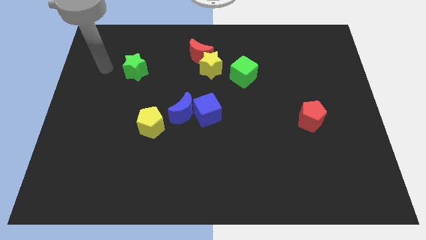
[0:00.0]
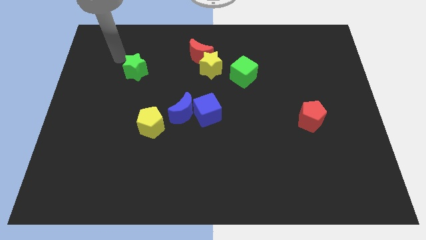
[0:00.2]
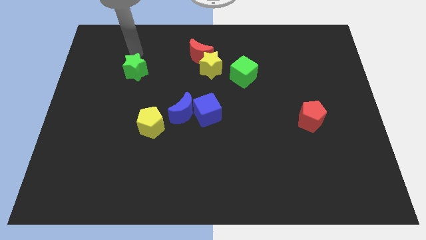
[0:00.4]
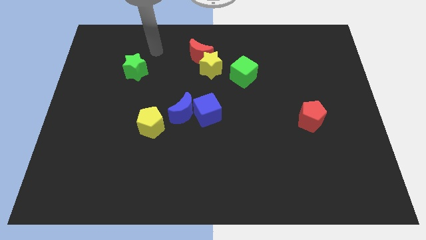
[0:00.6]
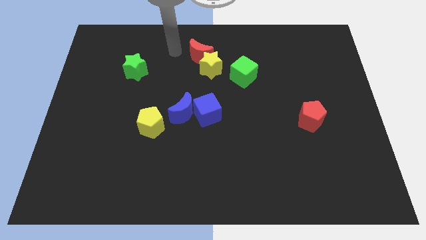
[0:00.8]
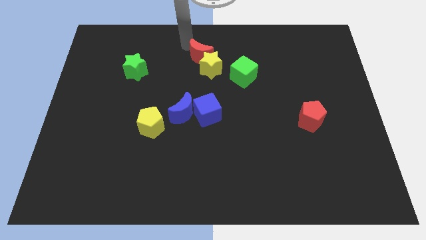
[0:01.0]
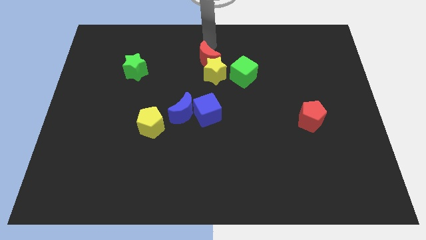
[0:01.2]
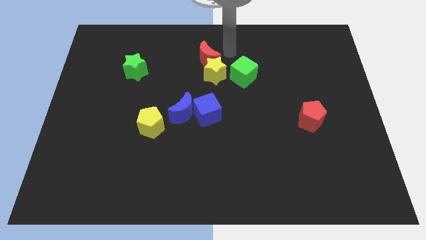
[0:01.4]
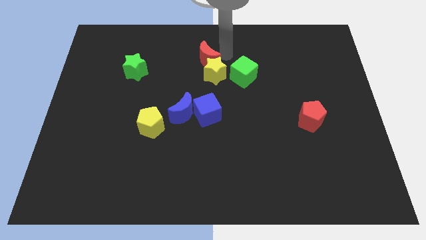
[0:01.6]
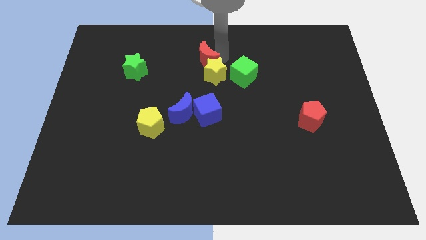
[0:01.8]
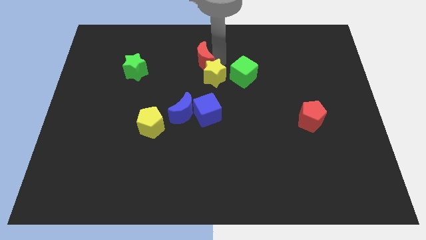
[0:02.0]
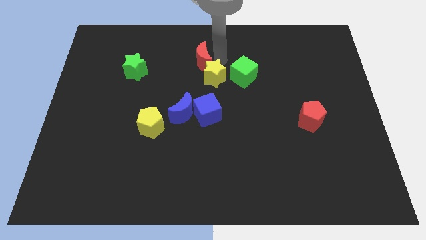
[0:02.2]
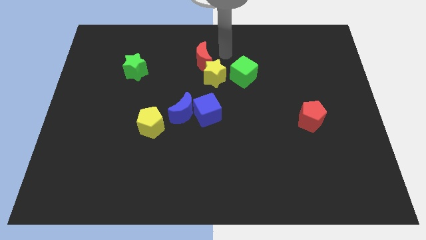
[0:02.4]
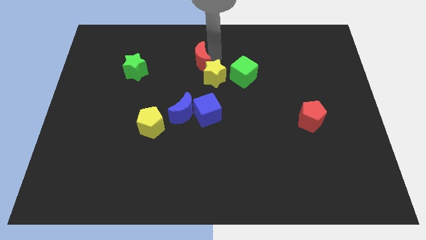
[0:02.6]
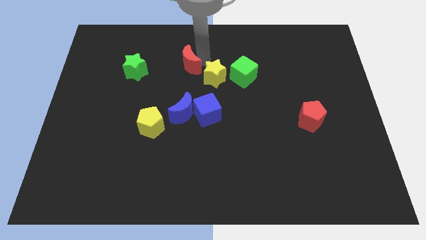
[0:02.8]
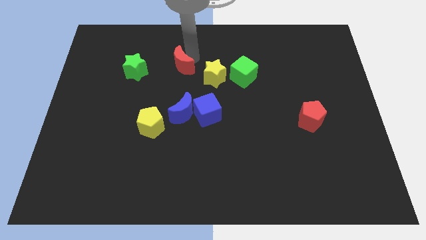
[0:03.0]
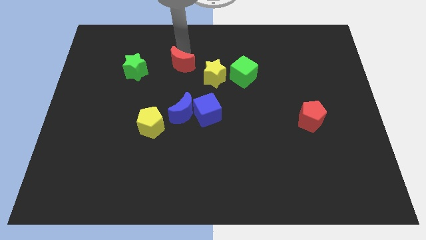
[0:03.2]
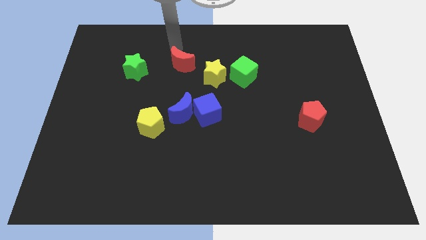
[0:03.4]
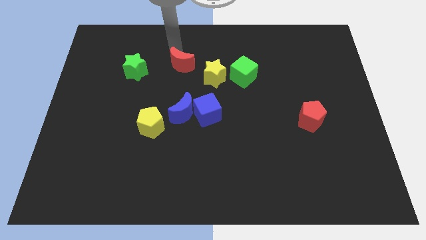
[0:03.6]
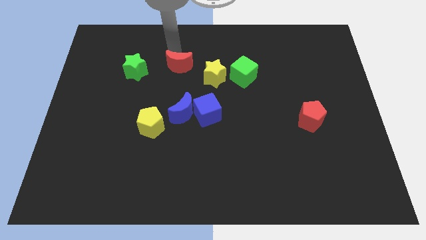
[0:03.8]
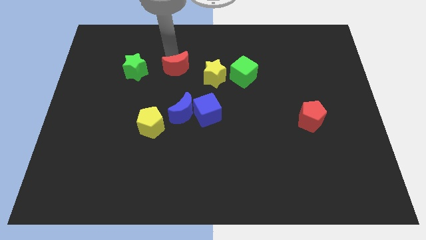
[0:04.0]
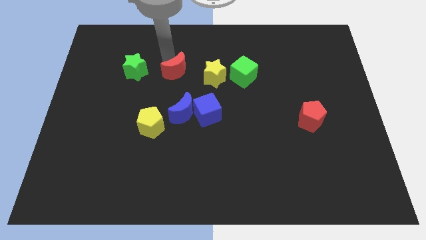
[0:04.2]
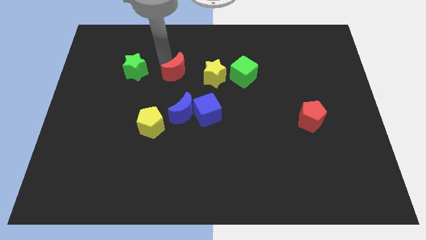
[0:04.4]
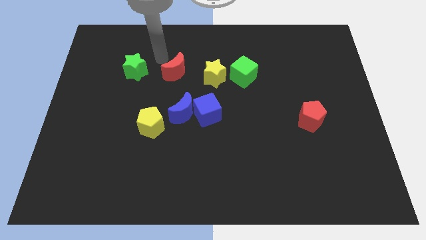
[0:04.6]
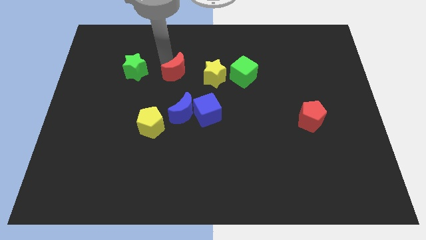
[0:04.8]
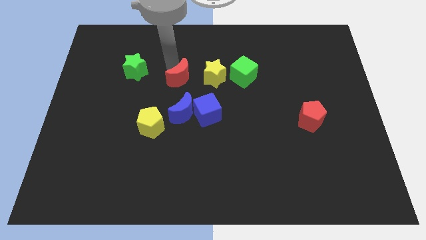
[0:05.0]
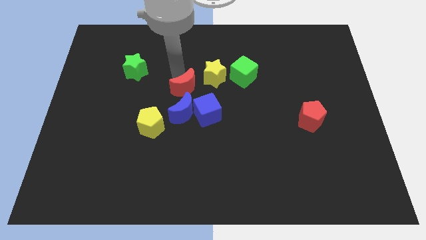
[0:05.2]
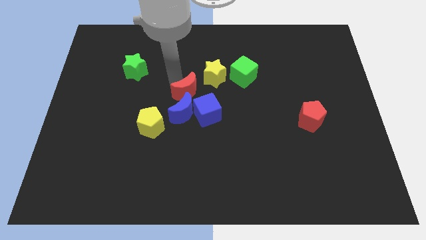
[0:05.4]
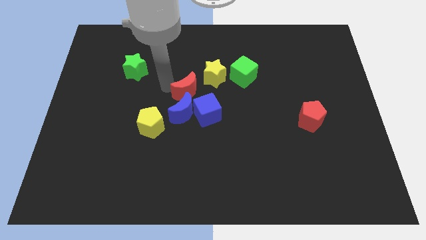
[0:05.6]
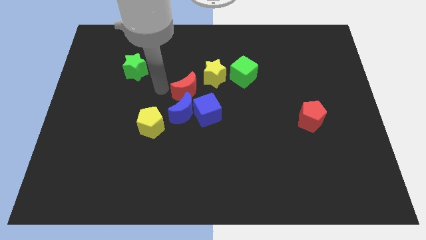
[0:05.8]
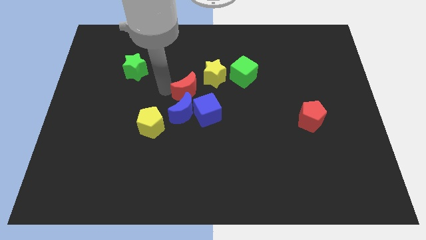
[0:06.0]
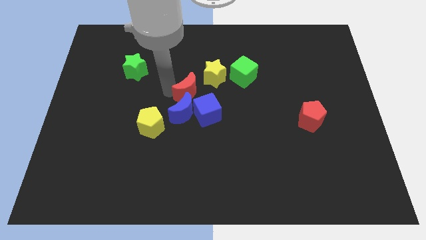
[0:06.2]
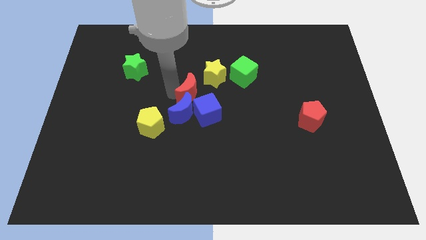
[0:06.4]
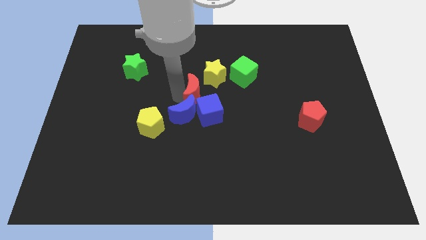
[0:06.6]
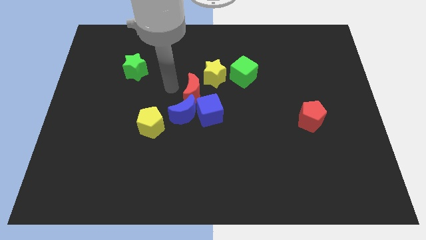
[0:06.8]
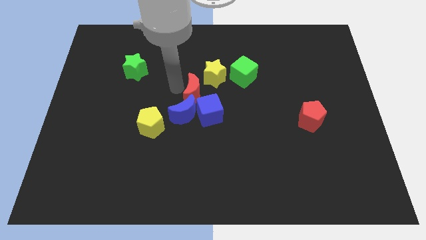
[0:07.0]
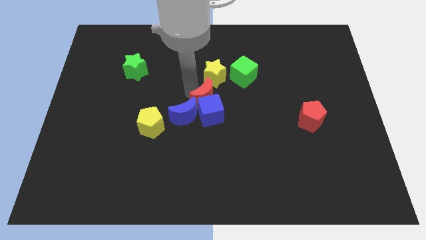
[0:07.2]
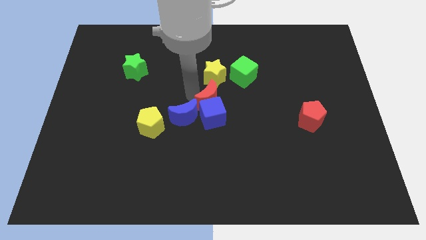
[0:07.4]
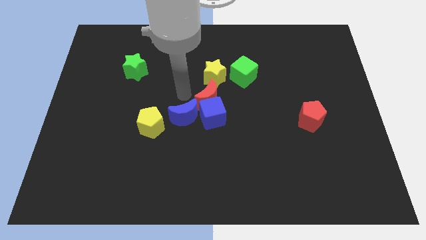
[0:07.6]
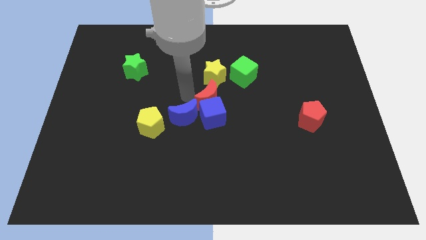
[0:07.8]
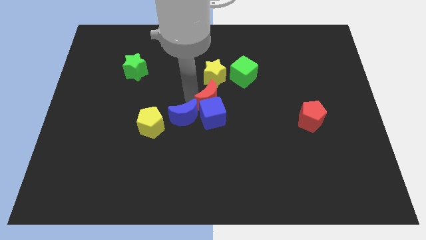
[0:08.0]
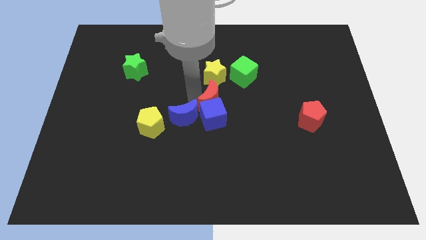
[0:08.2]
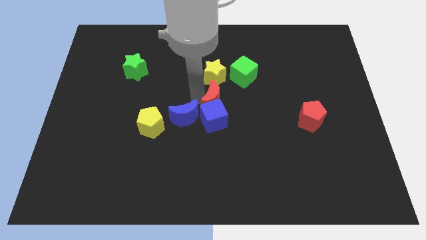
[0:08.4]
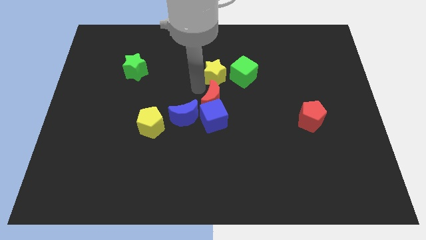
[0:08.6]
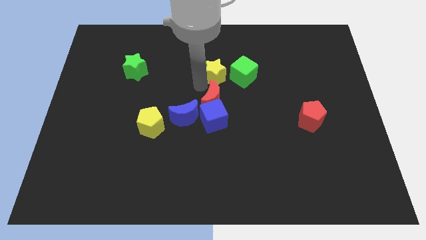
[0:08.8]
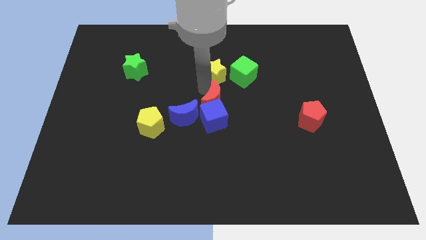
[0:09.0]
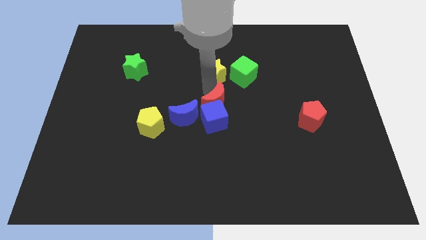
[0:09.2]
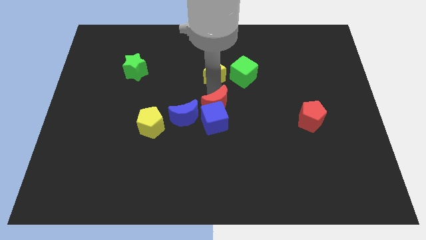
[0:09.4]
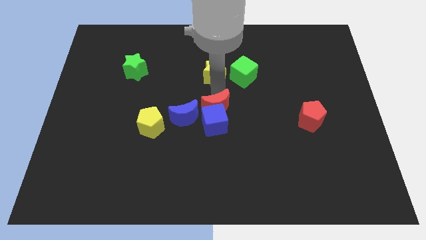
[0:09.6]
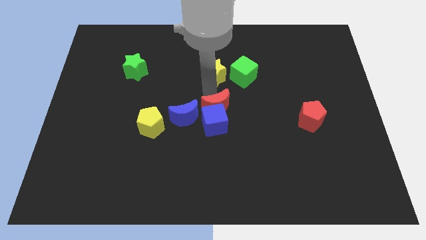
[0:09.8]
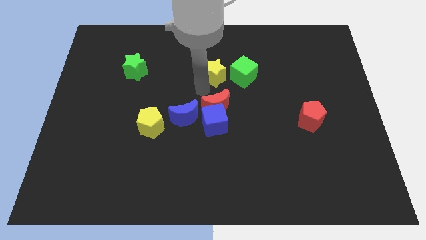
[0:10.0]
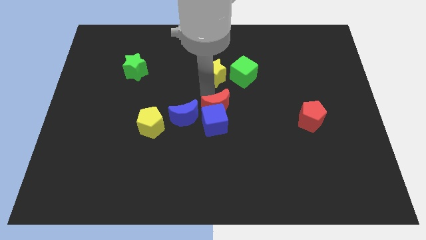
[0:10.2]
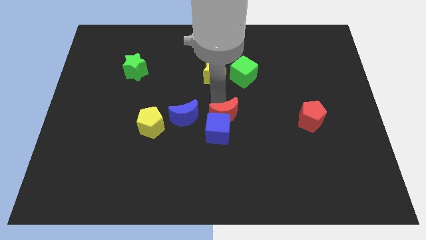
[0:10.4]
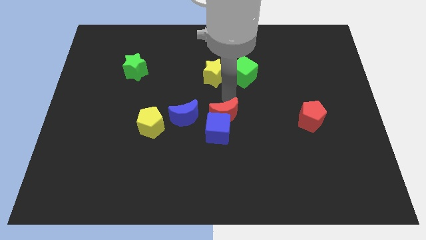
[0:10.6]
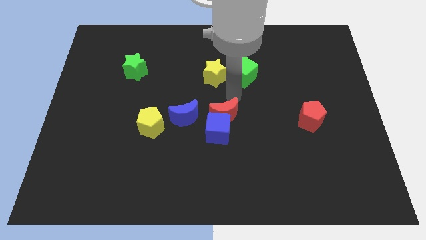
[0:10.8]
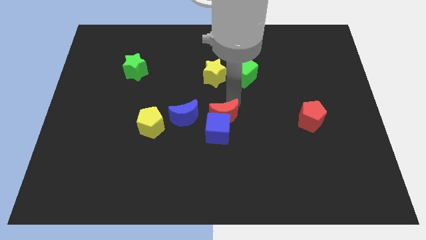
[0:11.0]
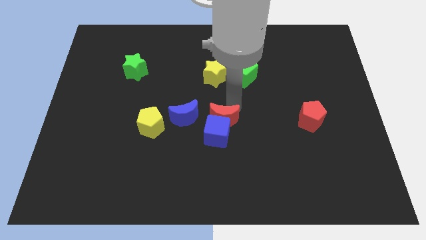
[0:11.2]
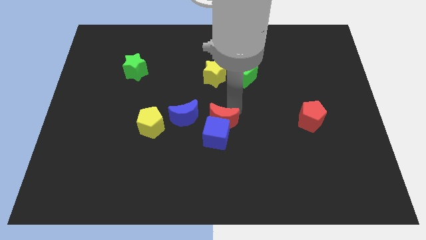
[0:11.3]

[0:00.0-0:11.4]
move the red moon down

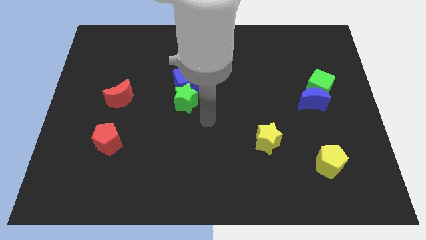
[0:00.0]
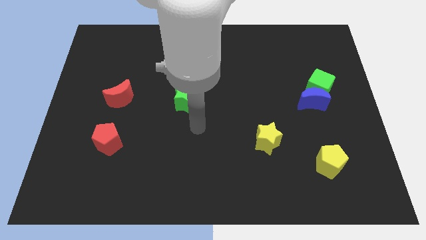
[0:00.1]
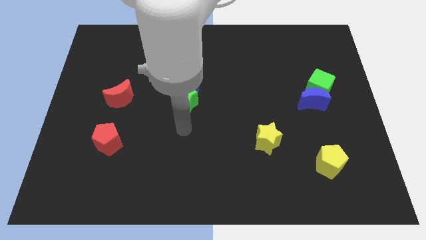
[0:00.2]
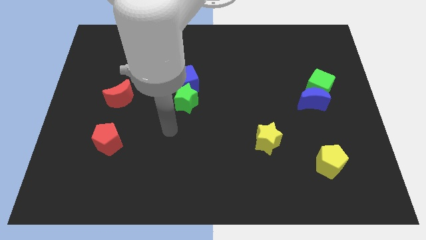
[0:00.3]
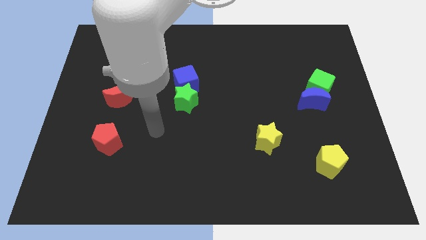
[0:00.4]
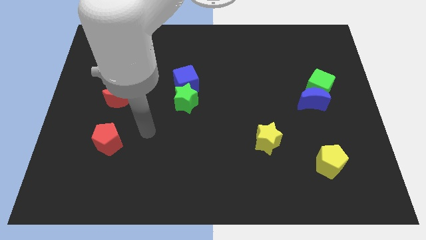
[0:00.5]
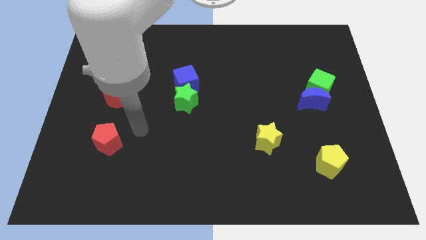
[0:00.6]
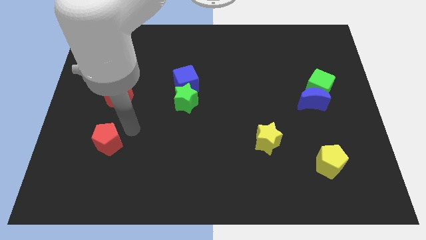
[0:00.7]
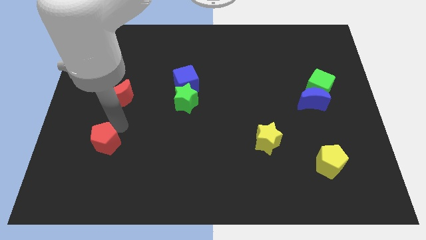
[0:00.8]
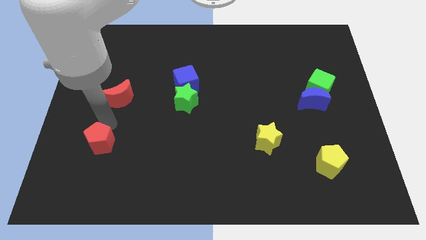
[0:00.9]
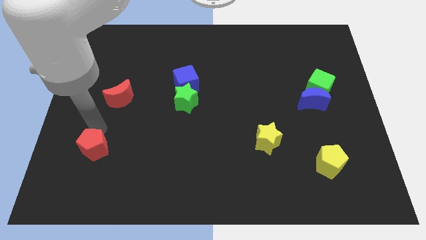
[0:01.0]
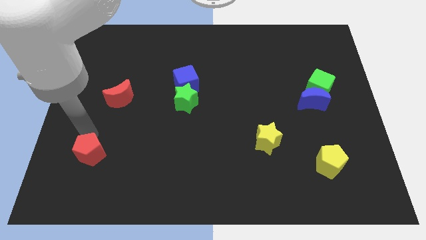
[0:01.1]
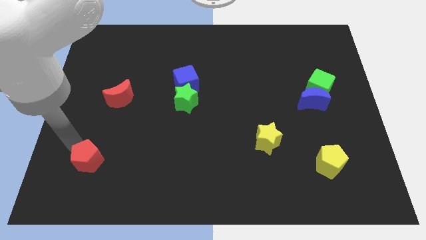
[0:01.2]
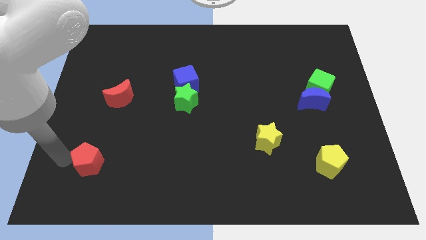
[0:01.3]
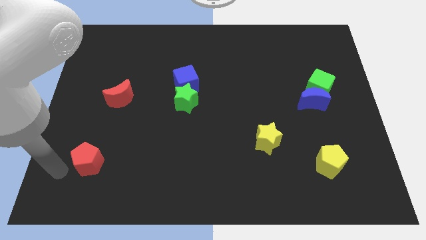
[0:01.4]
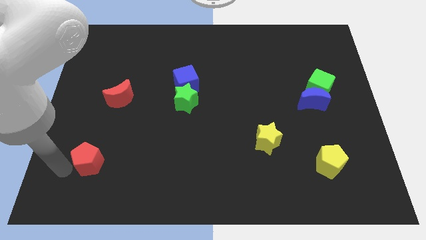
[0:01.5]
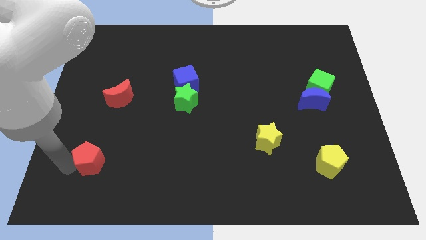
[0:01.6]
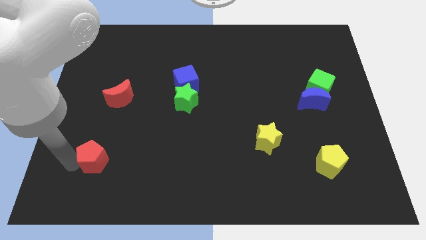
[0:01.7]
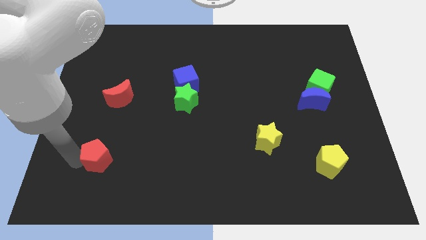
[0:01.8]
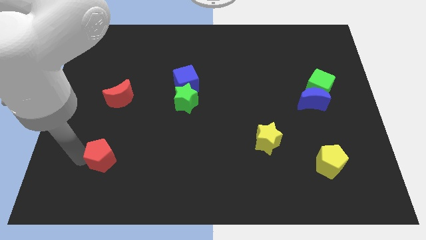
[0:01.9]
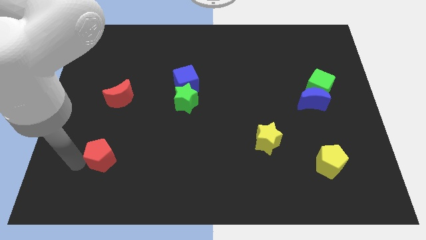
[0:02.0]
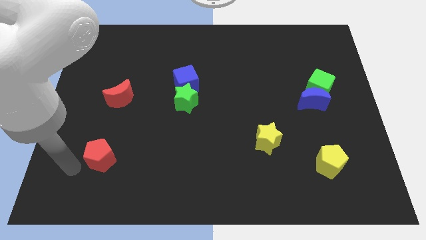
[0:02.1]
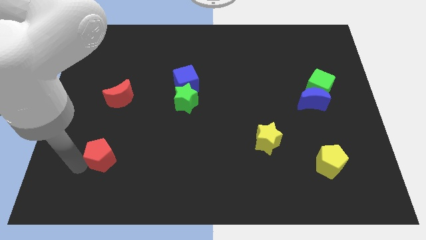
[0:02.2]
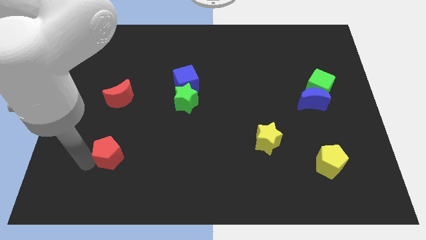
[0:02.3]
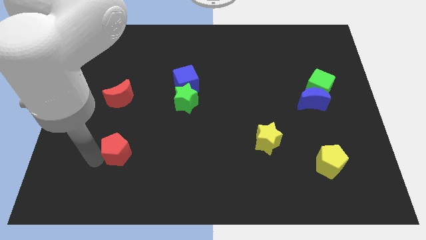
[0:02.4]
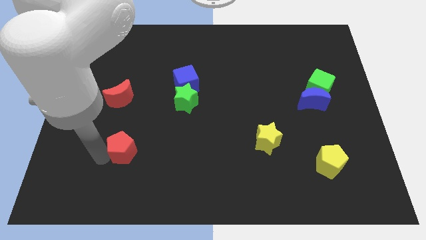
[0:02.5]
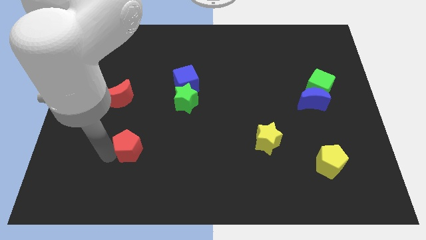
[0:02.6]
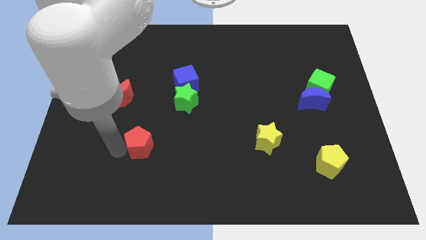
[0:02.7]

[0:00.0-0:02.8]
slide the red pentagon somewhat to the right
